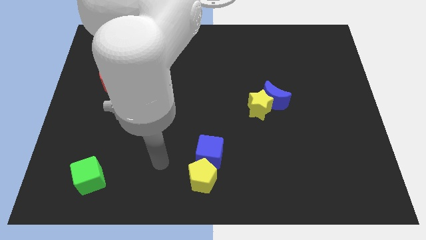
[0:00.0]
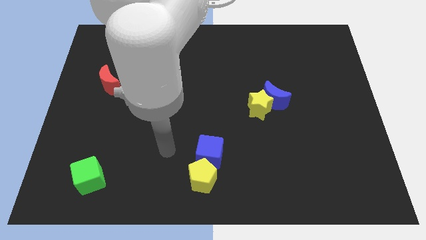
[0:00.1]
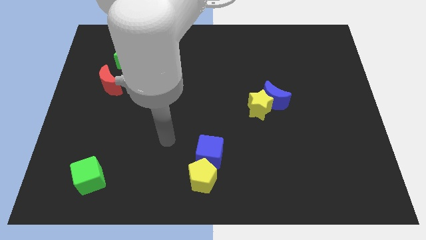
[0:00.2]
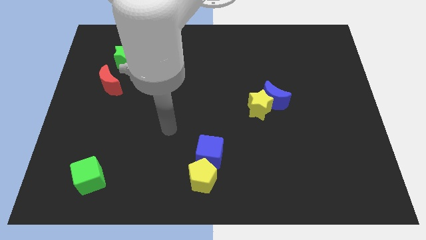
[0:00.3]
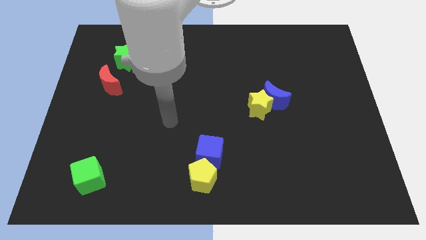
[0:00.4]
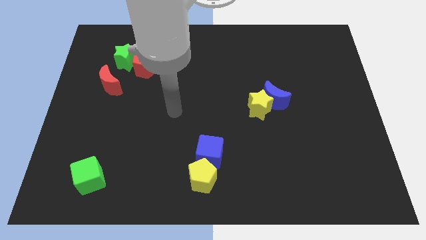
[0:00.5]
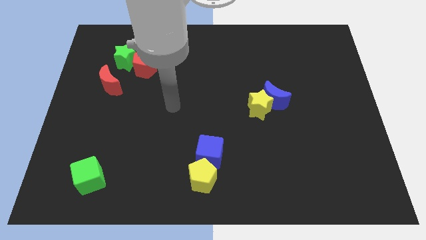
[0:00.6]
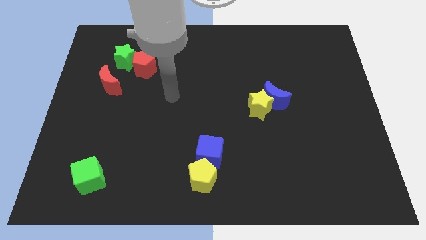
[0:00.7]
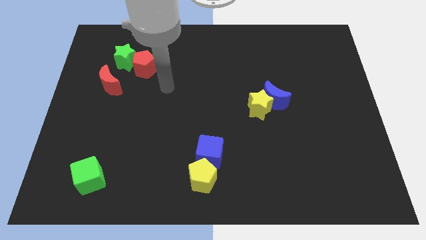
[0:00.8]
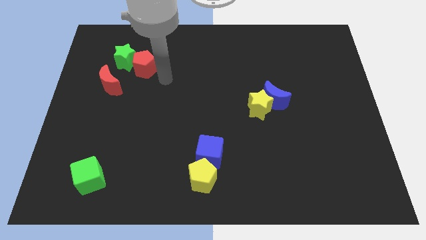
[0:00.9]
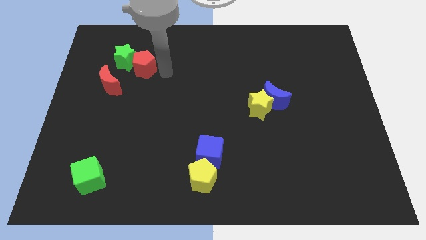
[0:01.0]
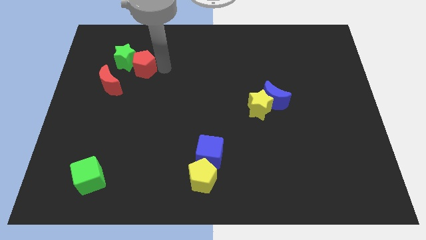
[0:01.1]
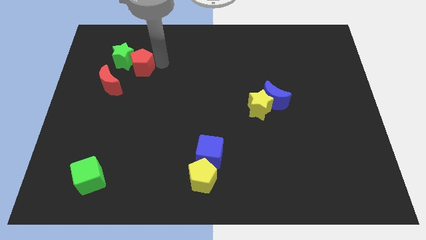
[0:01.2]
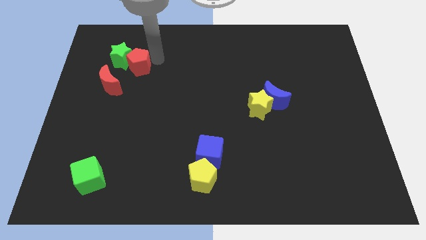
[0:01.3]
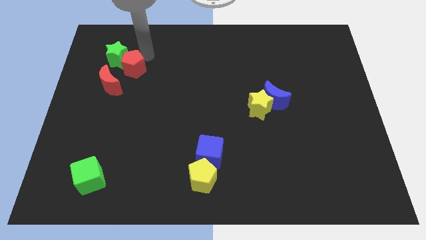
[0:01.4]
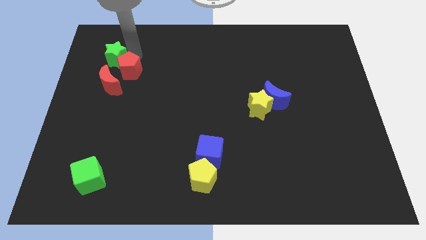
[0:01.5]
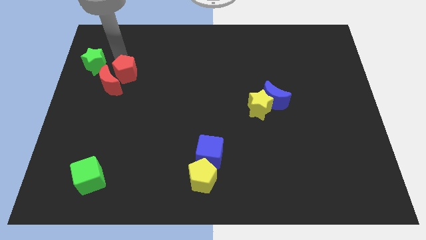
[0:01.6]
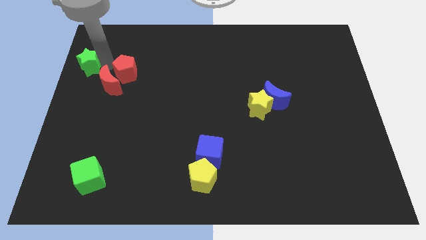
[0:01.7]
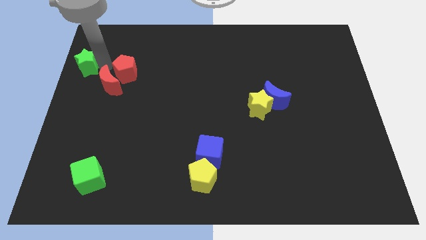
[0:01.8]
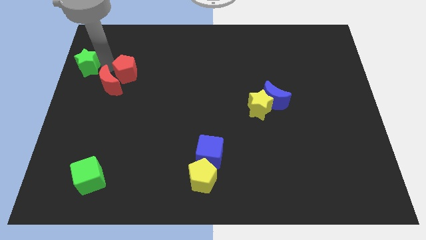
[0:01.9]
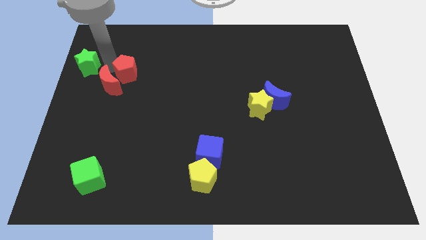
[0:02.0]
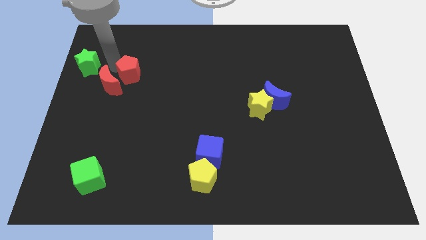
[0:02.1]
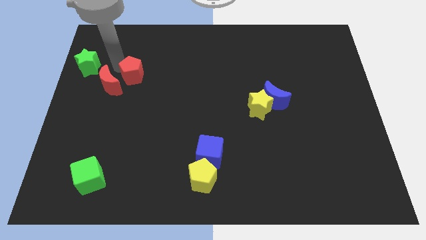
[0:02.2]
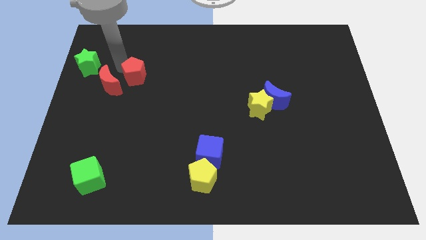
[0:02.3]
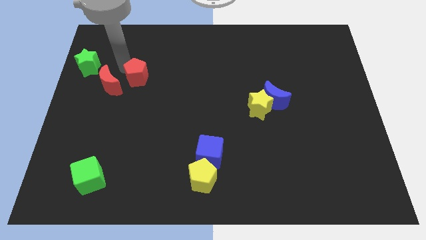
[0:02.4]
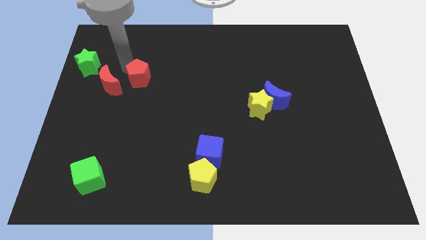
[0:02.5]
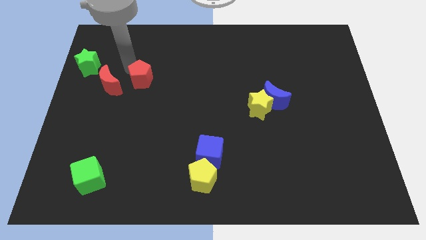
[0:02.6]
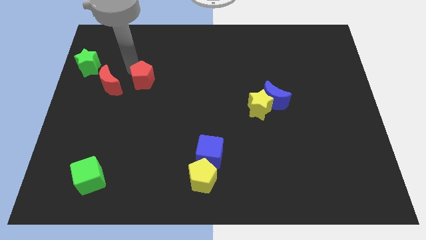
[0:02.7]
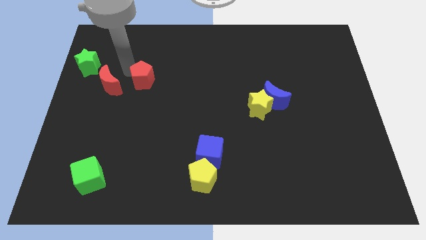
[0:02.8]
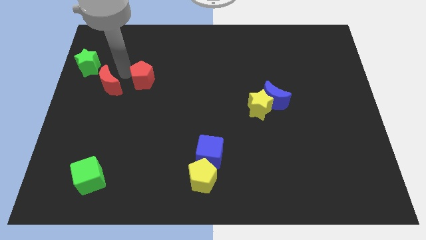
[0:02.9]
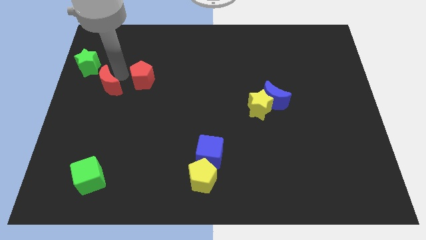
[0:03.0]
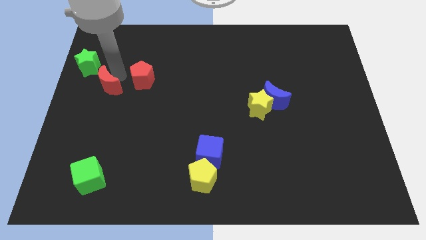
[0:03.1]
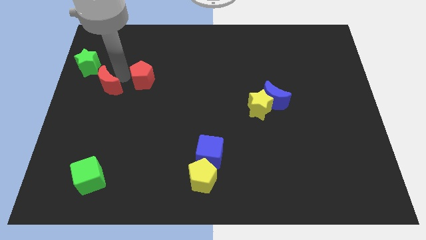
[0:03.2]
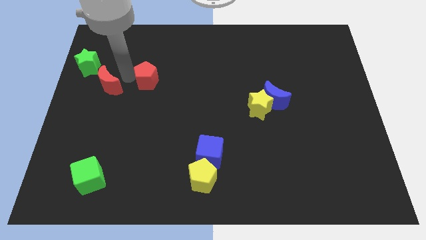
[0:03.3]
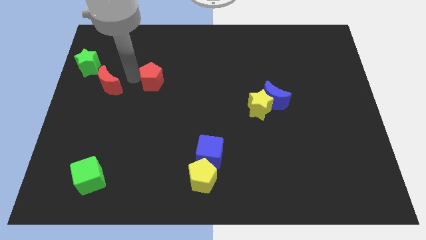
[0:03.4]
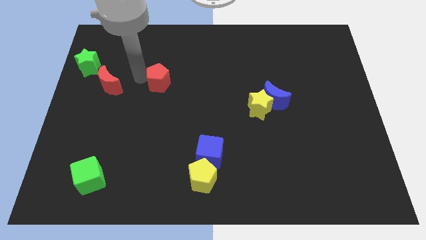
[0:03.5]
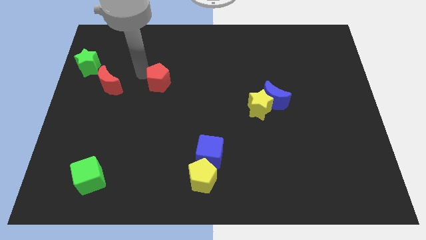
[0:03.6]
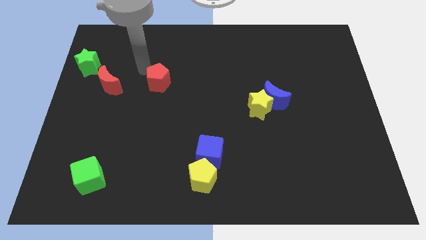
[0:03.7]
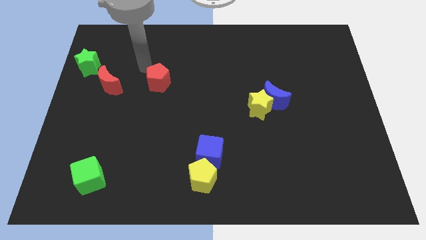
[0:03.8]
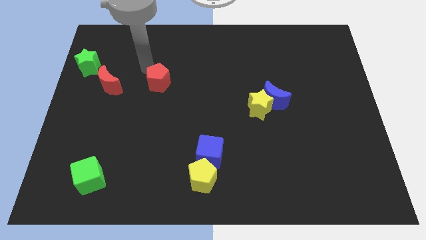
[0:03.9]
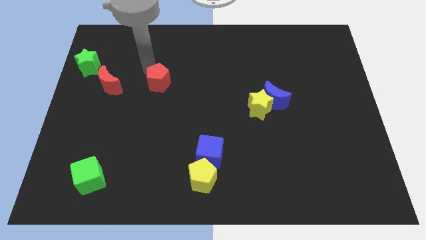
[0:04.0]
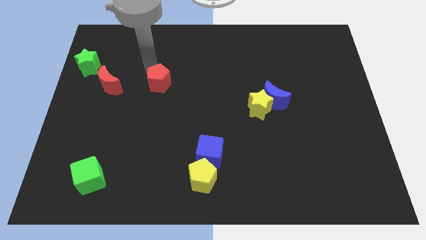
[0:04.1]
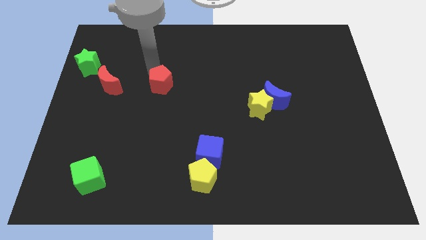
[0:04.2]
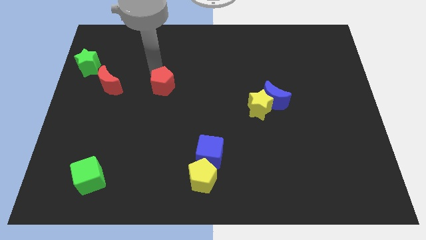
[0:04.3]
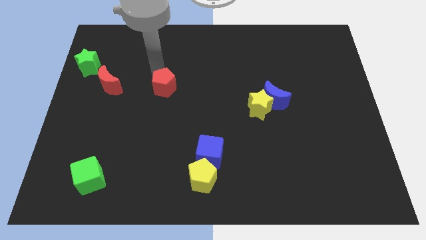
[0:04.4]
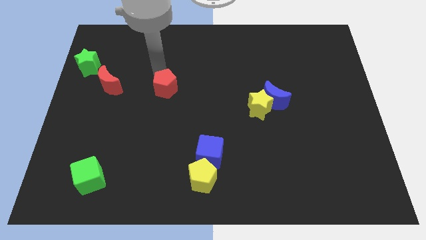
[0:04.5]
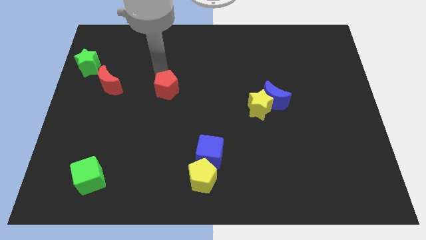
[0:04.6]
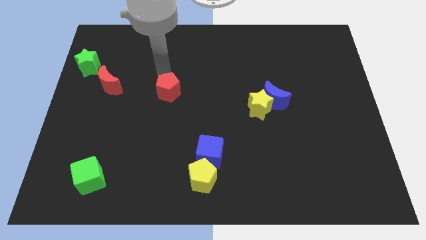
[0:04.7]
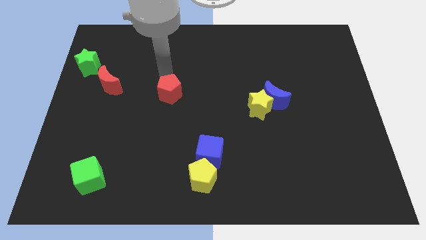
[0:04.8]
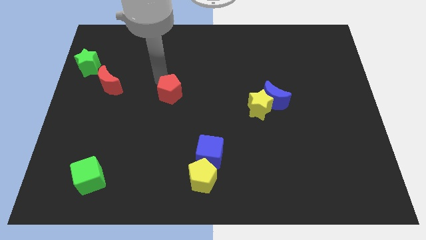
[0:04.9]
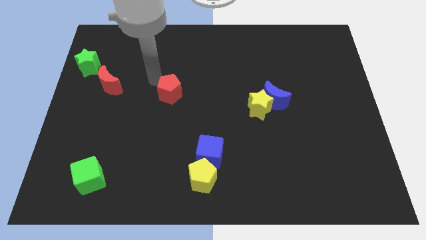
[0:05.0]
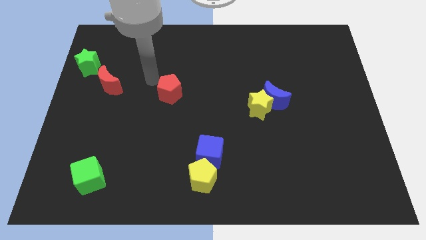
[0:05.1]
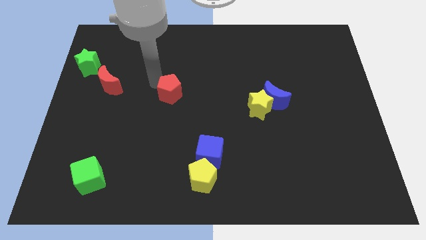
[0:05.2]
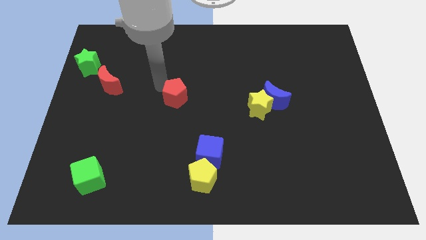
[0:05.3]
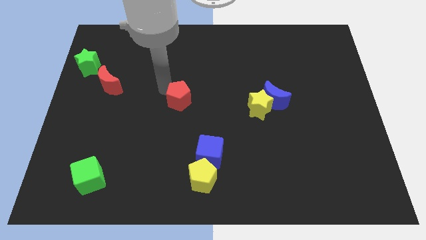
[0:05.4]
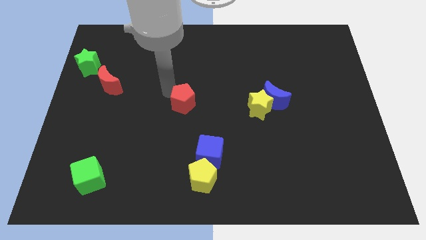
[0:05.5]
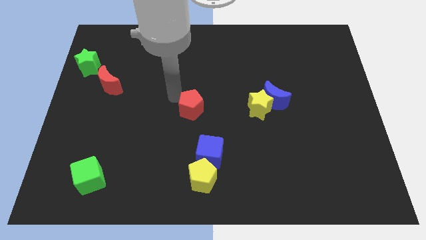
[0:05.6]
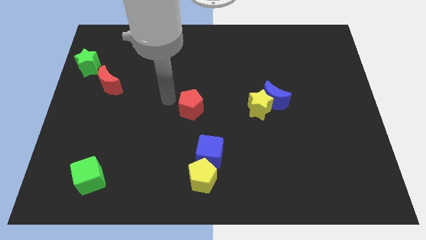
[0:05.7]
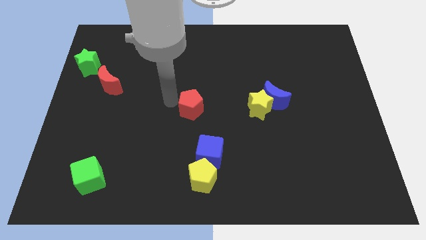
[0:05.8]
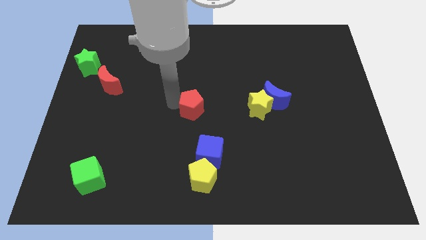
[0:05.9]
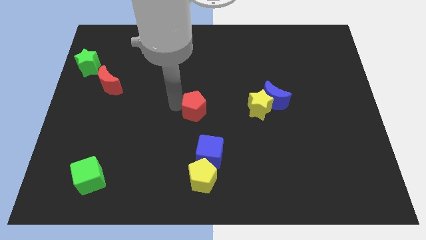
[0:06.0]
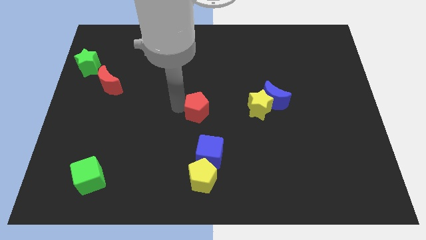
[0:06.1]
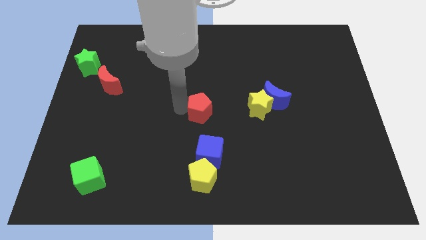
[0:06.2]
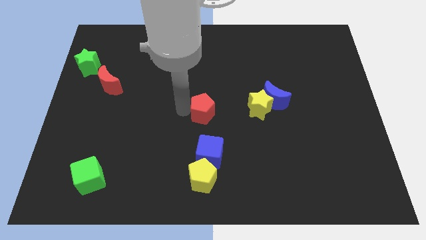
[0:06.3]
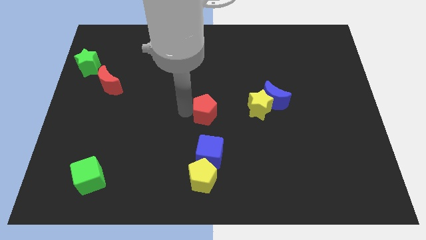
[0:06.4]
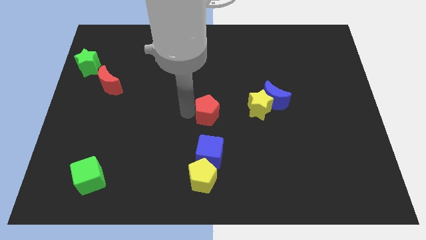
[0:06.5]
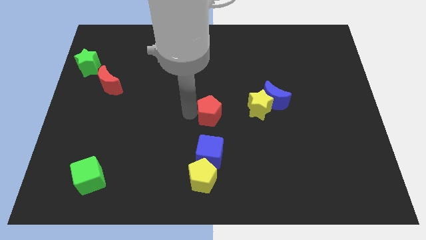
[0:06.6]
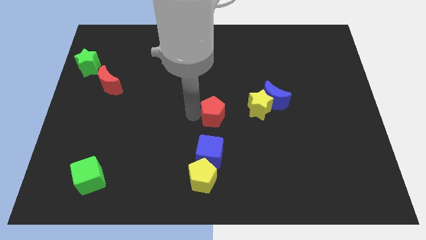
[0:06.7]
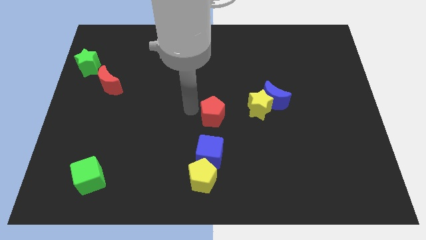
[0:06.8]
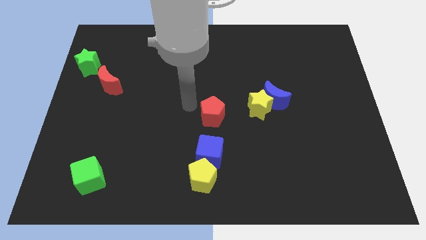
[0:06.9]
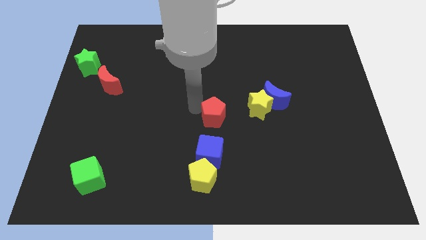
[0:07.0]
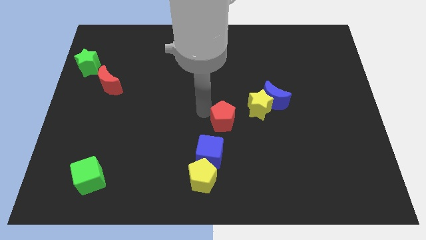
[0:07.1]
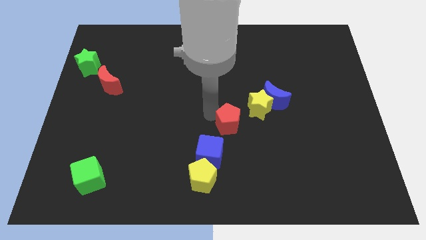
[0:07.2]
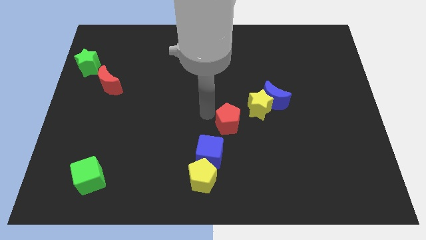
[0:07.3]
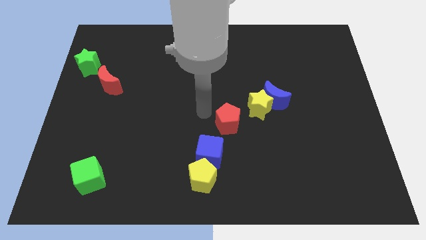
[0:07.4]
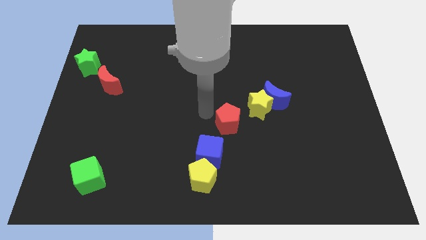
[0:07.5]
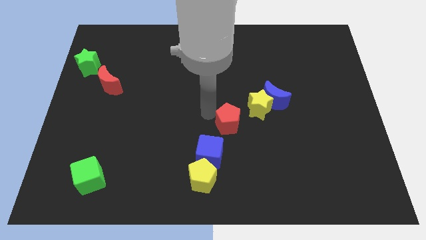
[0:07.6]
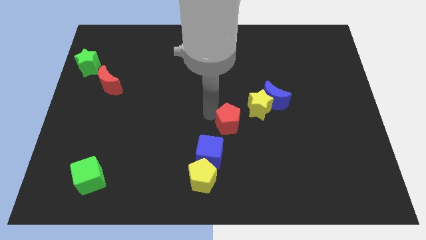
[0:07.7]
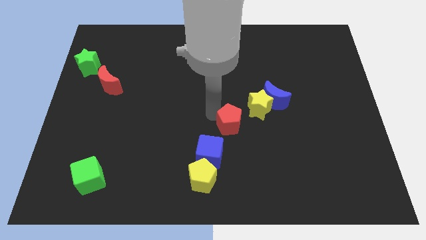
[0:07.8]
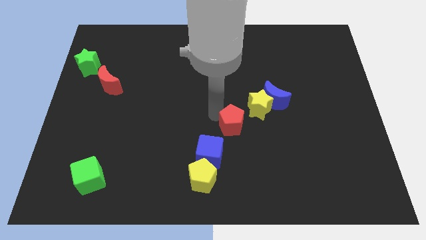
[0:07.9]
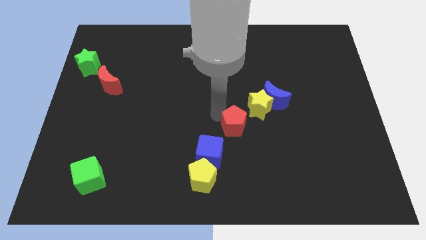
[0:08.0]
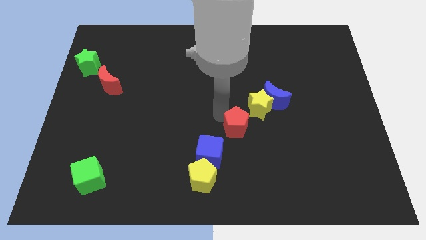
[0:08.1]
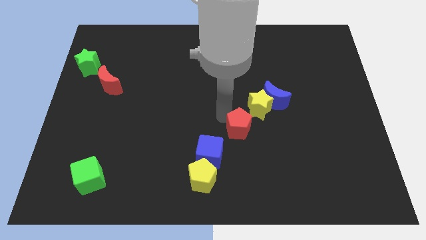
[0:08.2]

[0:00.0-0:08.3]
slide the red pentagon to the bottom of the yellow star
